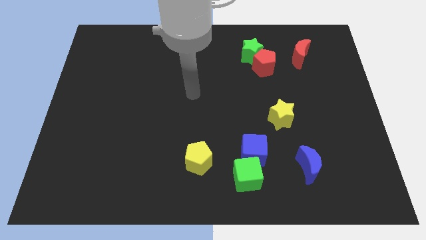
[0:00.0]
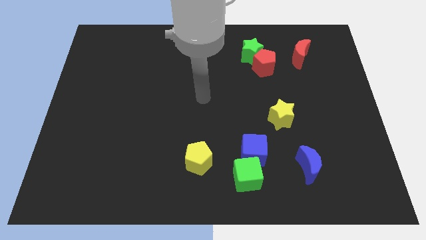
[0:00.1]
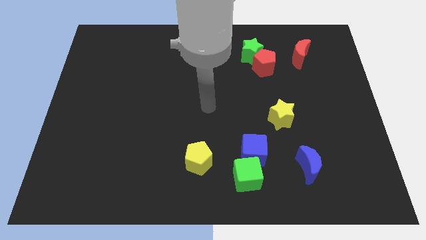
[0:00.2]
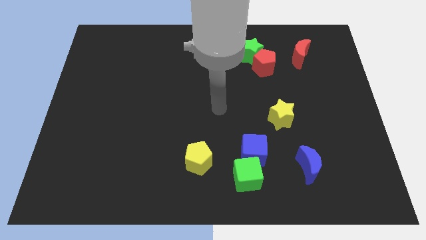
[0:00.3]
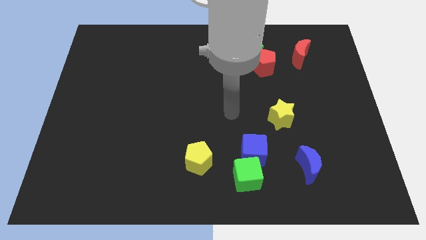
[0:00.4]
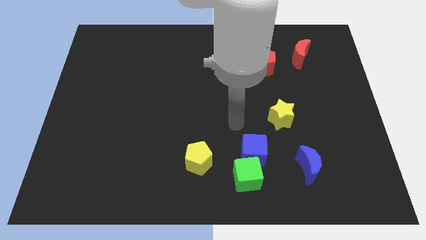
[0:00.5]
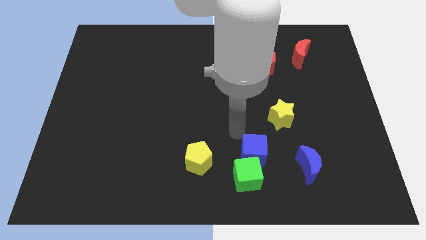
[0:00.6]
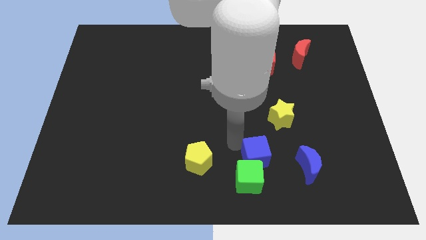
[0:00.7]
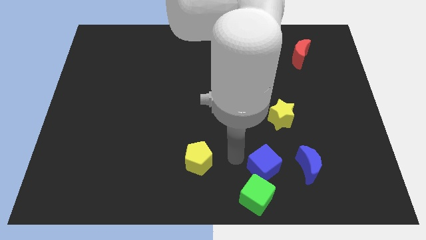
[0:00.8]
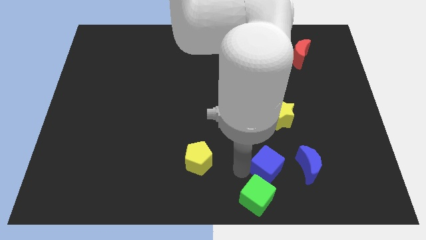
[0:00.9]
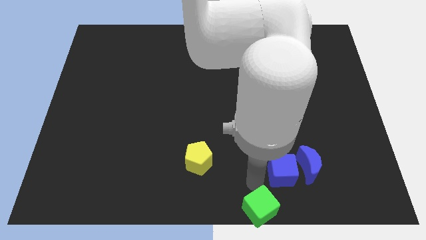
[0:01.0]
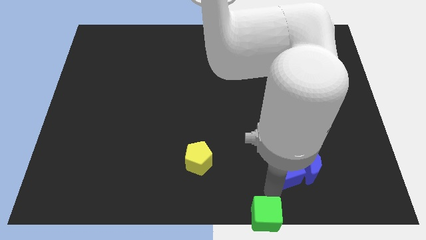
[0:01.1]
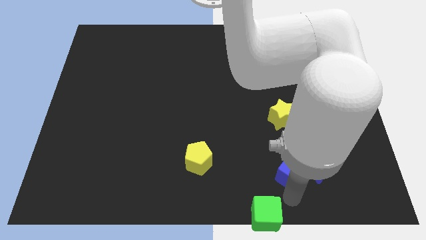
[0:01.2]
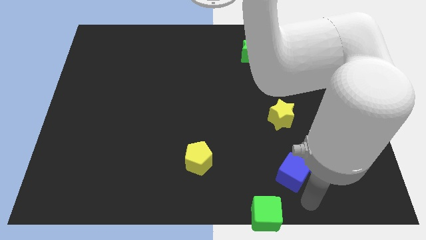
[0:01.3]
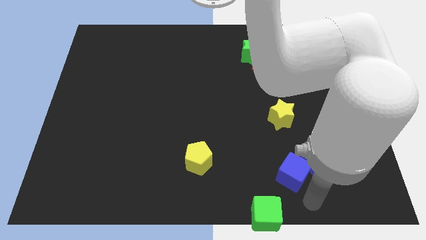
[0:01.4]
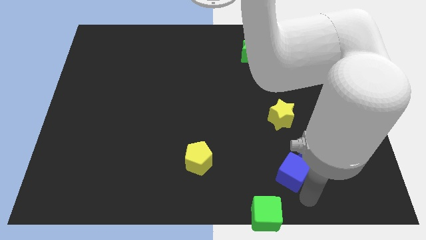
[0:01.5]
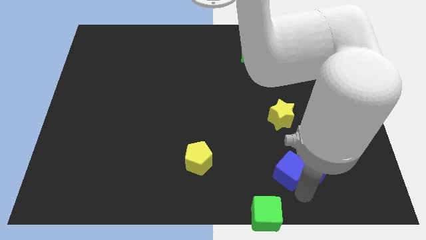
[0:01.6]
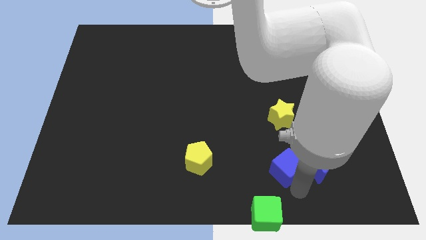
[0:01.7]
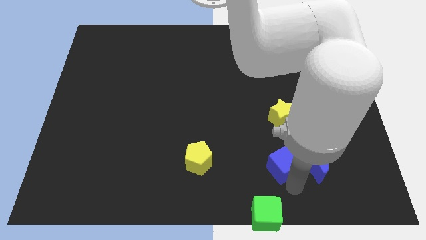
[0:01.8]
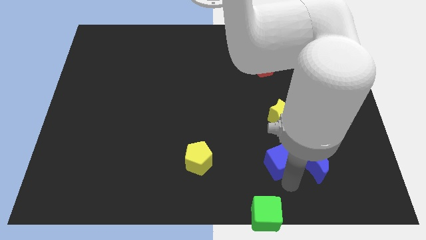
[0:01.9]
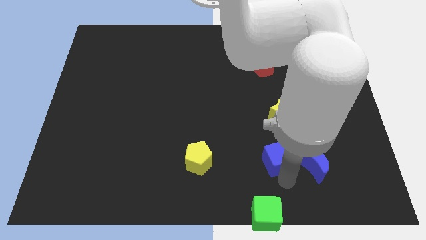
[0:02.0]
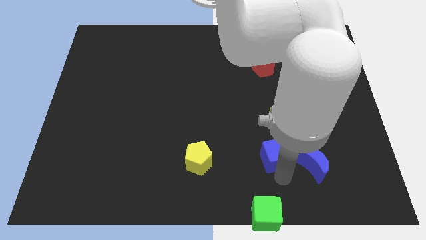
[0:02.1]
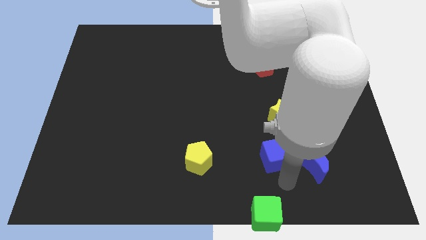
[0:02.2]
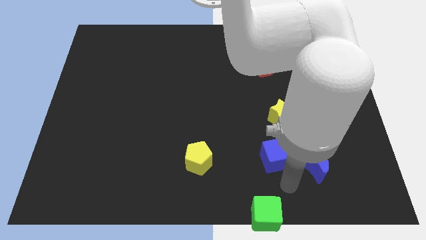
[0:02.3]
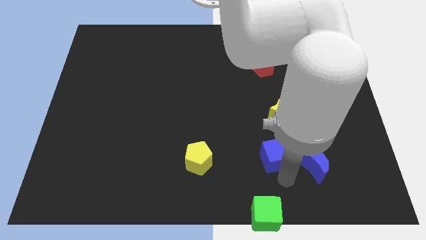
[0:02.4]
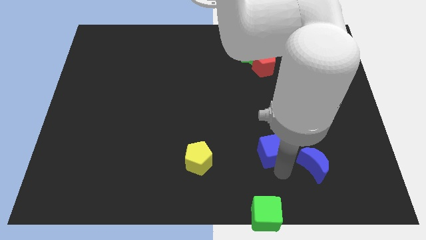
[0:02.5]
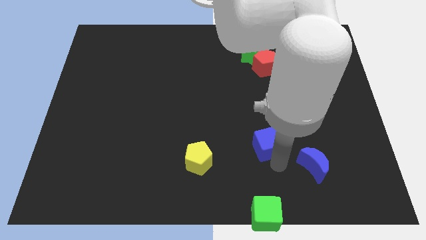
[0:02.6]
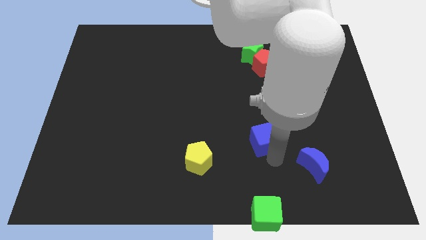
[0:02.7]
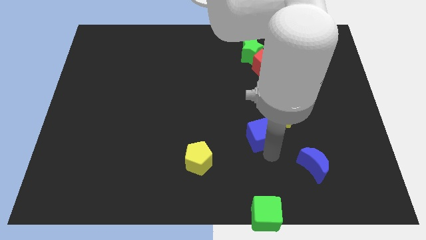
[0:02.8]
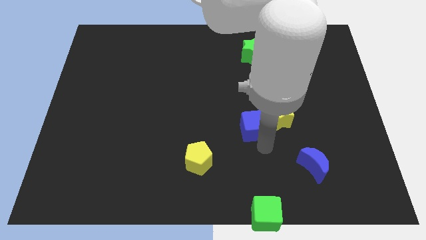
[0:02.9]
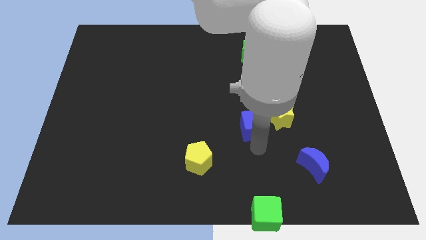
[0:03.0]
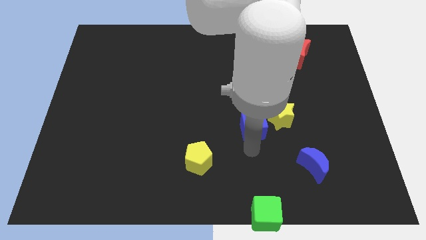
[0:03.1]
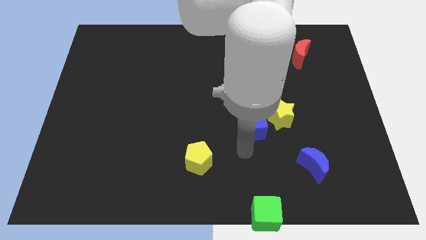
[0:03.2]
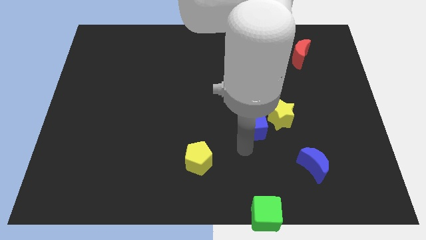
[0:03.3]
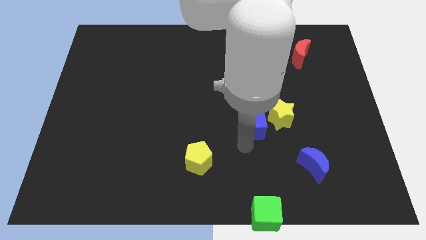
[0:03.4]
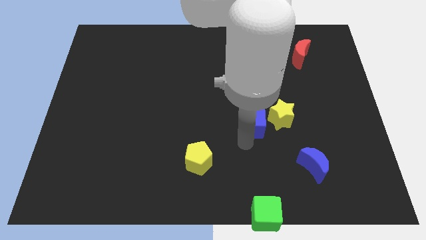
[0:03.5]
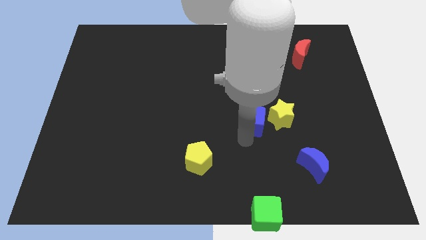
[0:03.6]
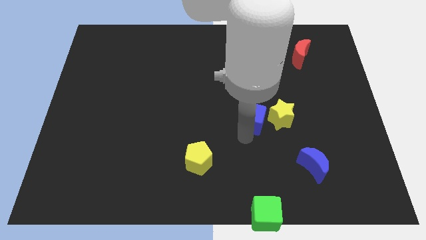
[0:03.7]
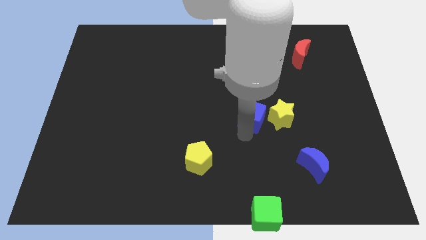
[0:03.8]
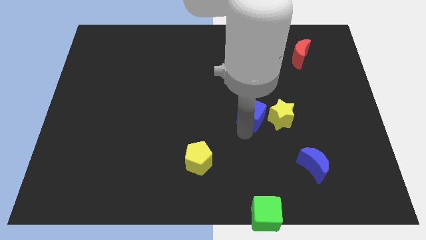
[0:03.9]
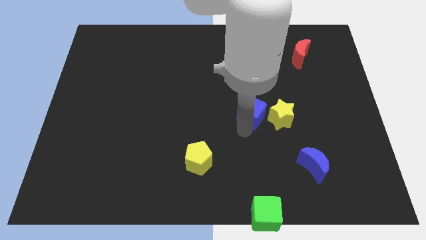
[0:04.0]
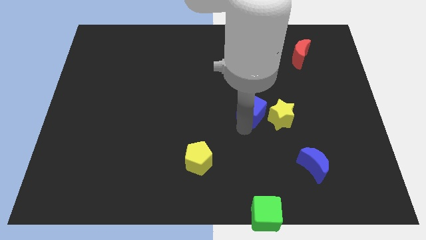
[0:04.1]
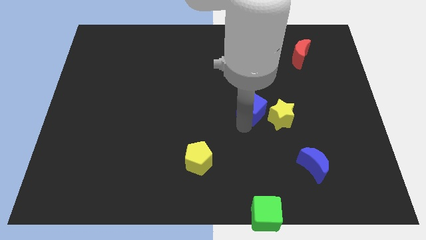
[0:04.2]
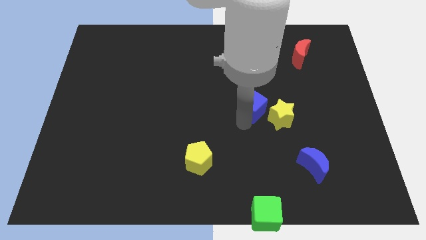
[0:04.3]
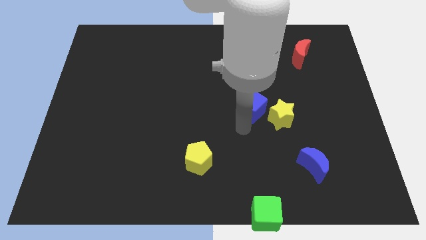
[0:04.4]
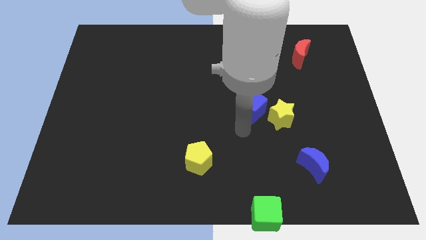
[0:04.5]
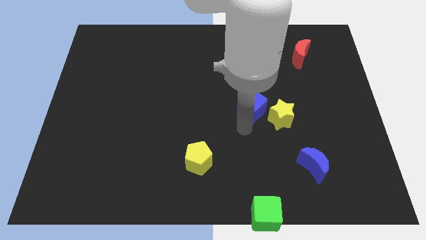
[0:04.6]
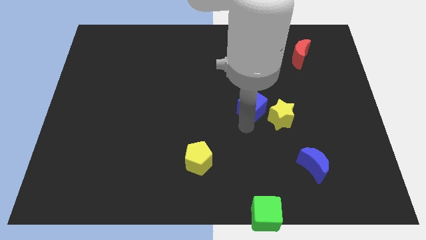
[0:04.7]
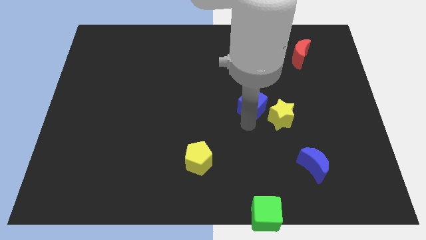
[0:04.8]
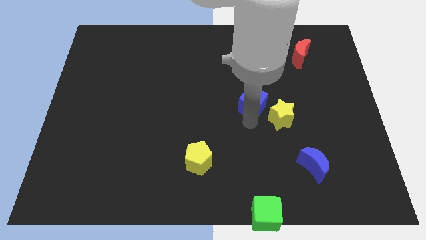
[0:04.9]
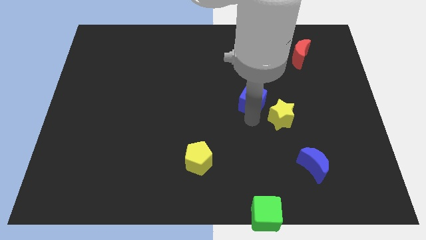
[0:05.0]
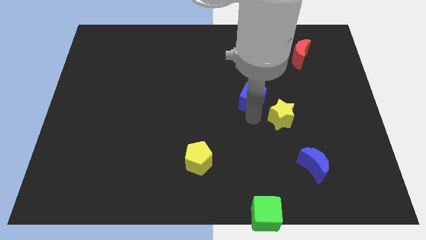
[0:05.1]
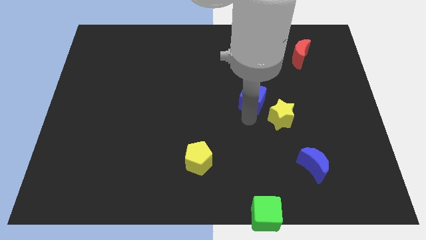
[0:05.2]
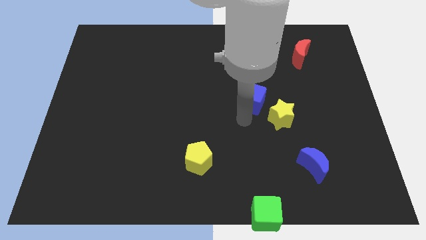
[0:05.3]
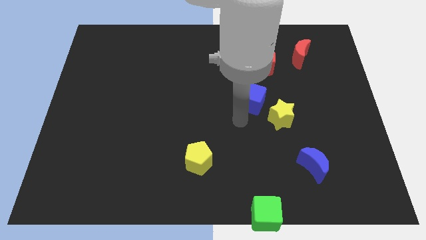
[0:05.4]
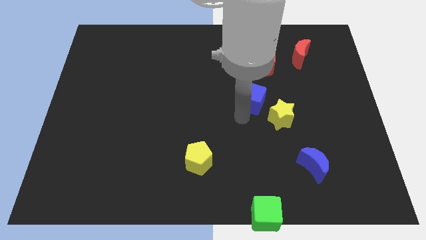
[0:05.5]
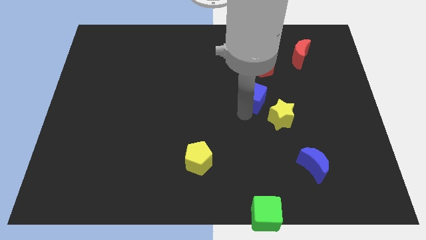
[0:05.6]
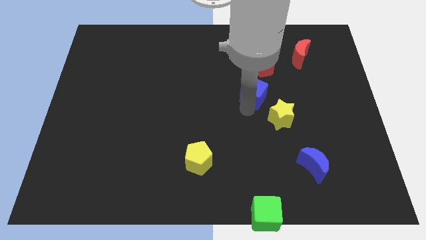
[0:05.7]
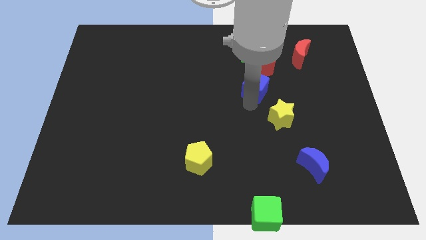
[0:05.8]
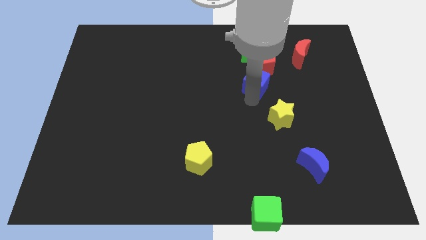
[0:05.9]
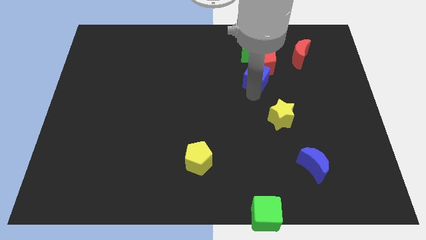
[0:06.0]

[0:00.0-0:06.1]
move the blue cube to the red pentagon
